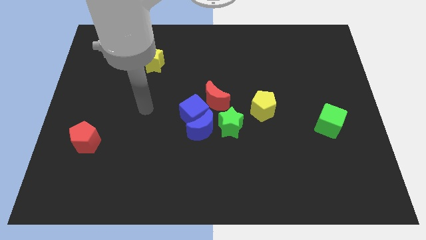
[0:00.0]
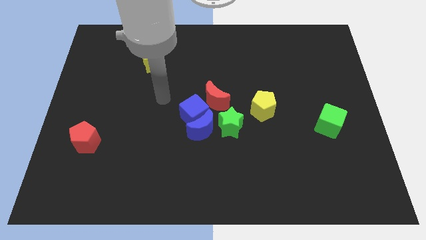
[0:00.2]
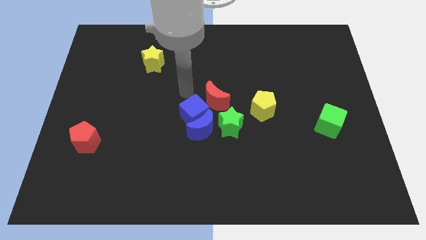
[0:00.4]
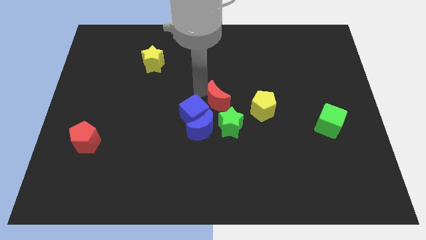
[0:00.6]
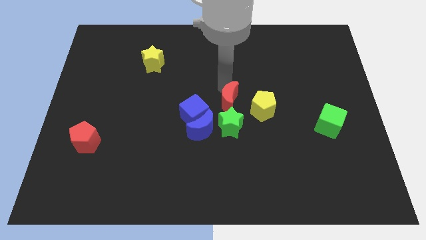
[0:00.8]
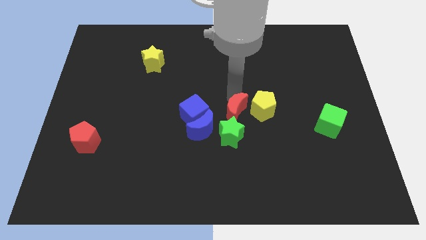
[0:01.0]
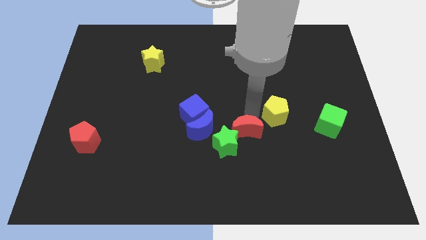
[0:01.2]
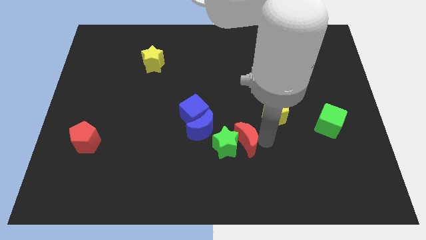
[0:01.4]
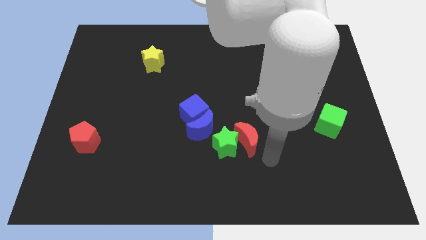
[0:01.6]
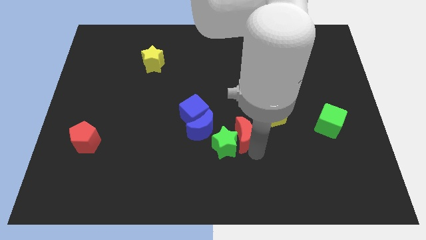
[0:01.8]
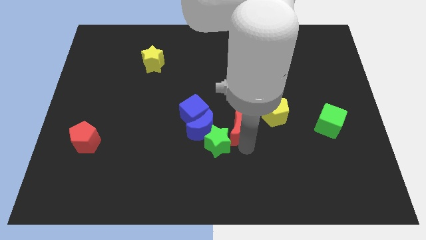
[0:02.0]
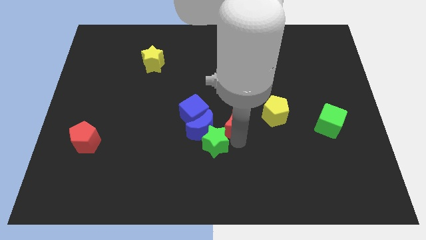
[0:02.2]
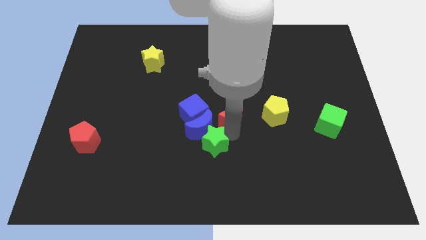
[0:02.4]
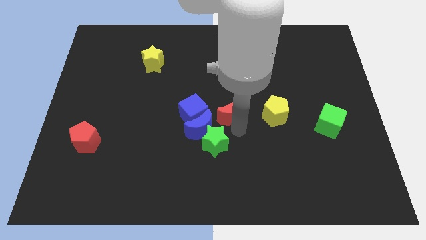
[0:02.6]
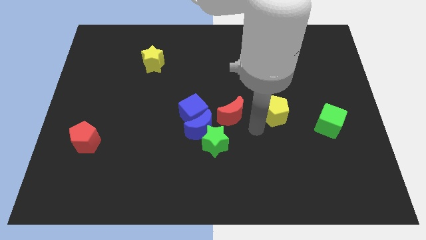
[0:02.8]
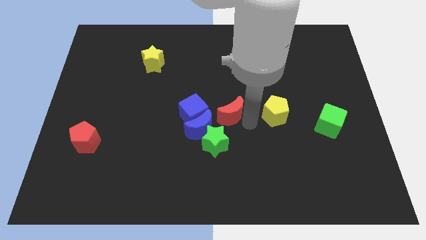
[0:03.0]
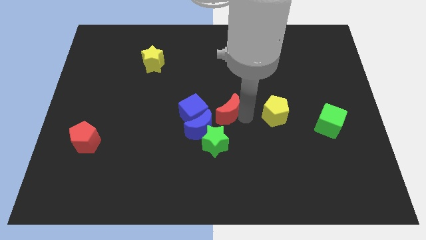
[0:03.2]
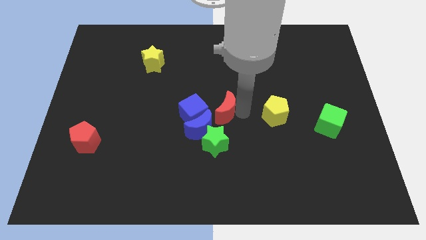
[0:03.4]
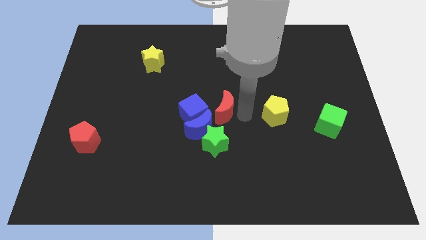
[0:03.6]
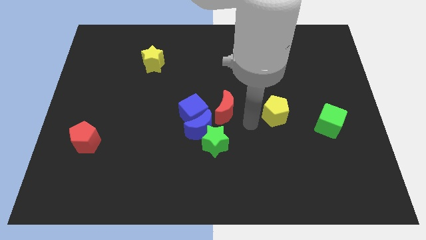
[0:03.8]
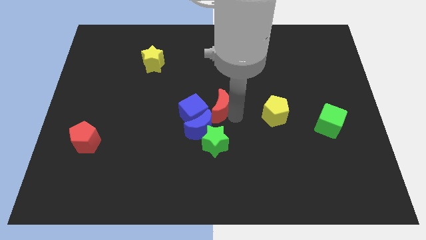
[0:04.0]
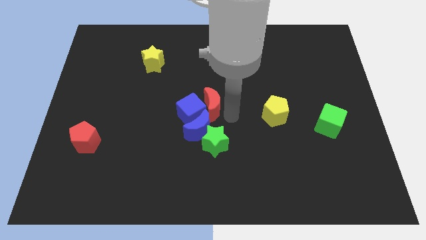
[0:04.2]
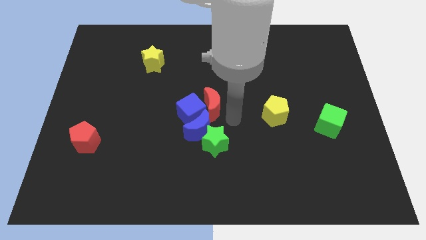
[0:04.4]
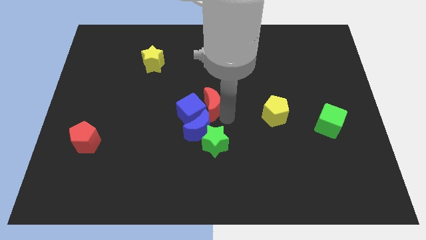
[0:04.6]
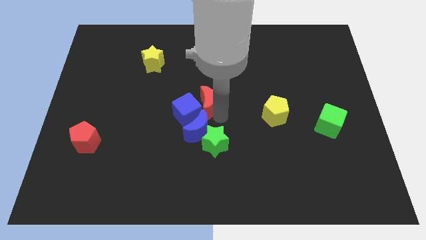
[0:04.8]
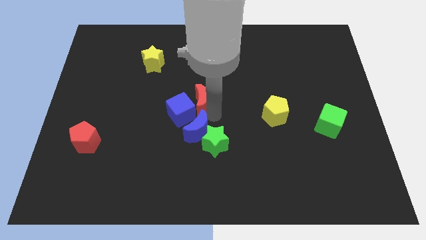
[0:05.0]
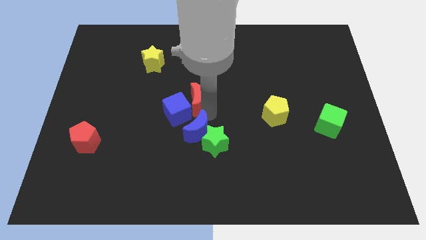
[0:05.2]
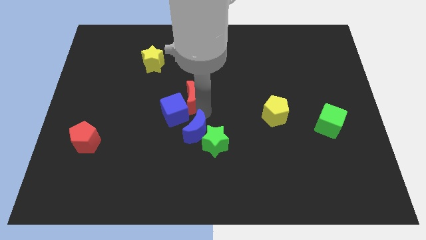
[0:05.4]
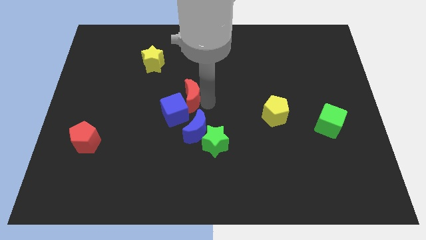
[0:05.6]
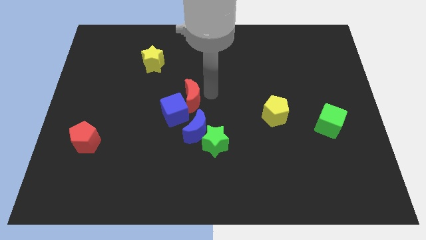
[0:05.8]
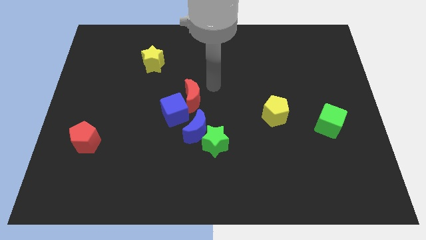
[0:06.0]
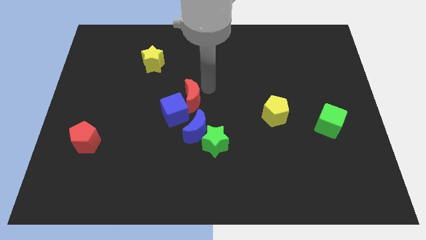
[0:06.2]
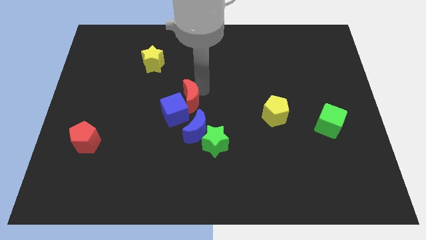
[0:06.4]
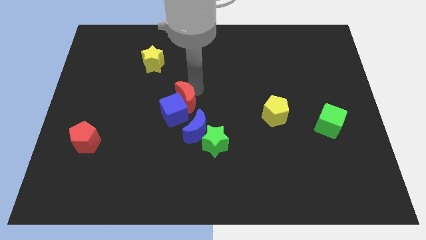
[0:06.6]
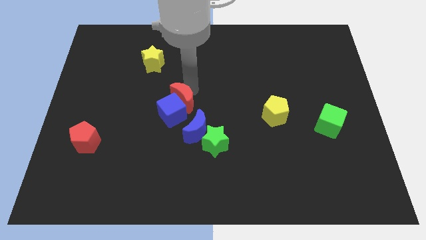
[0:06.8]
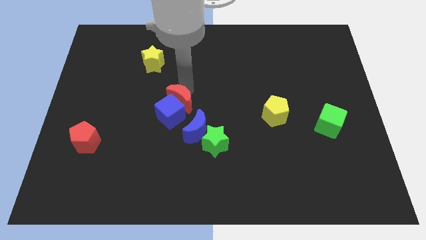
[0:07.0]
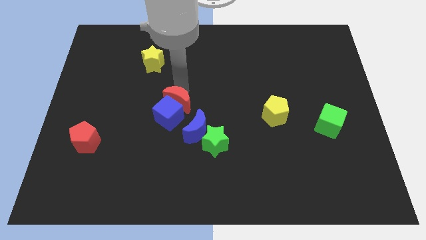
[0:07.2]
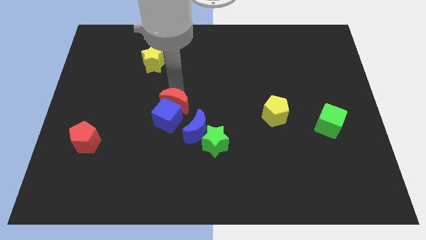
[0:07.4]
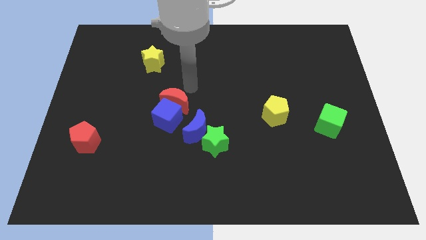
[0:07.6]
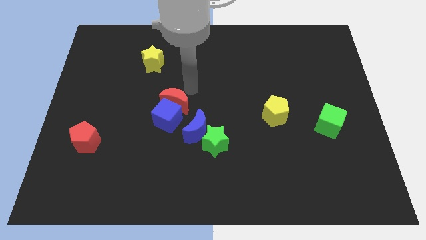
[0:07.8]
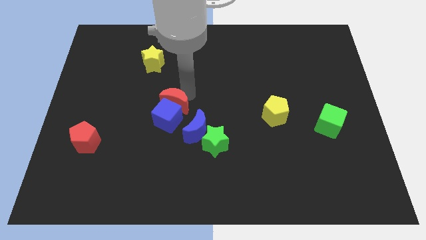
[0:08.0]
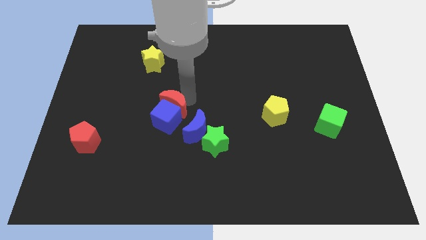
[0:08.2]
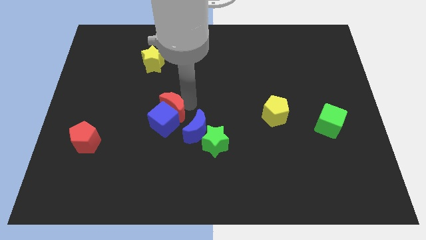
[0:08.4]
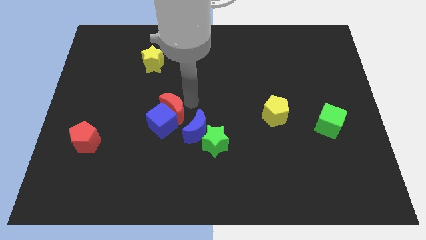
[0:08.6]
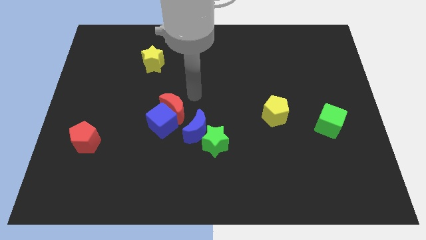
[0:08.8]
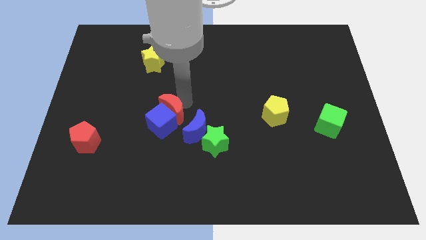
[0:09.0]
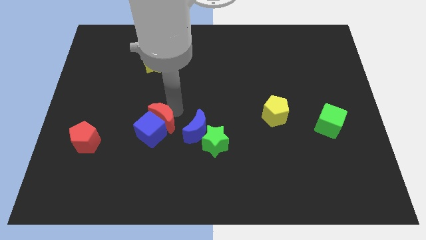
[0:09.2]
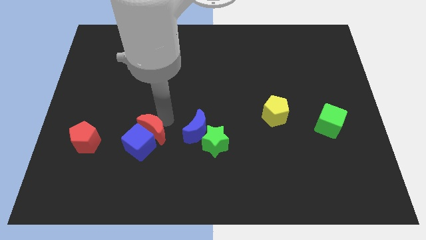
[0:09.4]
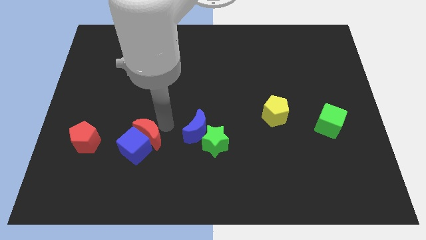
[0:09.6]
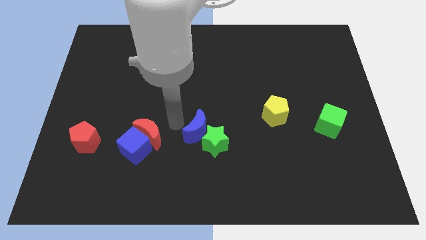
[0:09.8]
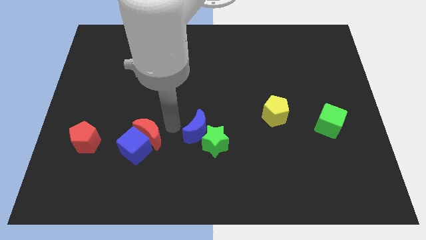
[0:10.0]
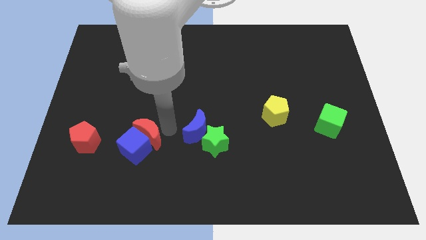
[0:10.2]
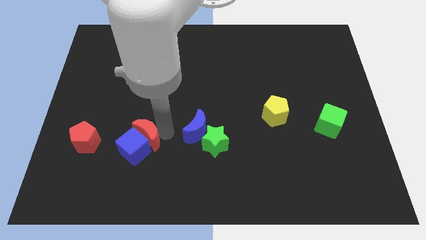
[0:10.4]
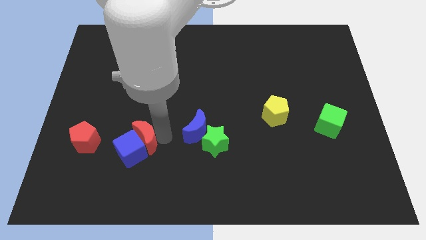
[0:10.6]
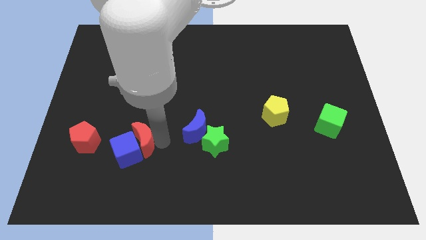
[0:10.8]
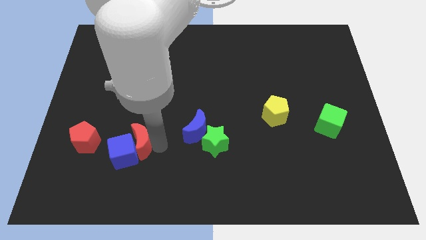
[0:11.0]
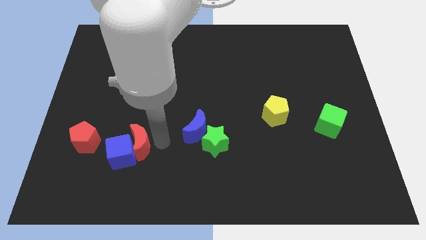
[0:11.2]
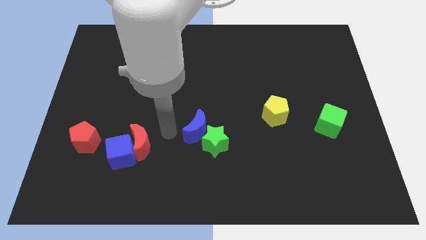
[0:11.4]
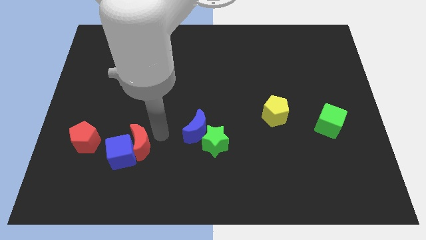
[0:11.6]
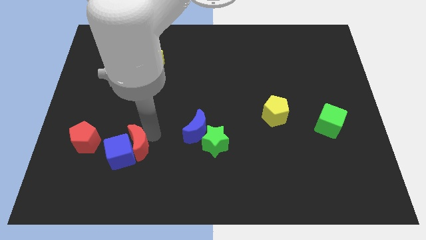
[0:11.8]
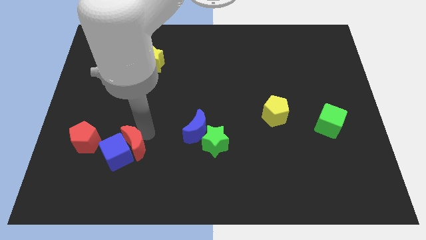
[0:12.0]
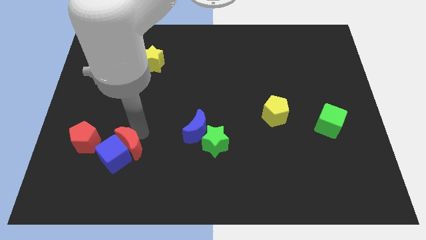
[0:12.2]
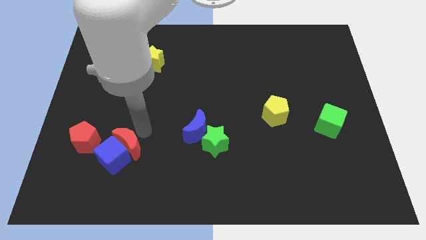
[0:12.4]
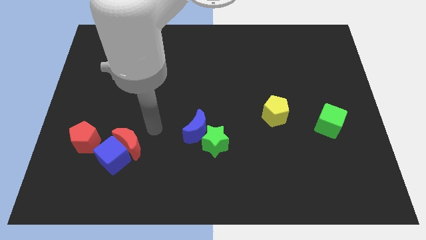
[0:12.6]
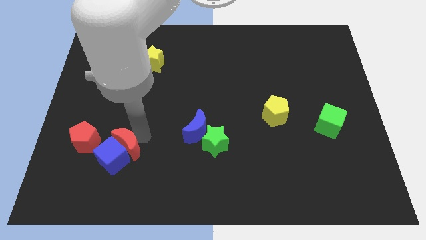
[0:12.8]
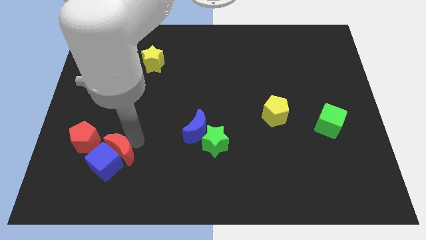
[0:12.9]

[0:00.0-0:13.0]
slide the red moon to the bottom right side of the red pentagon

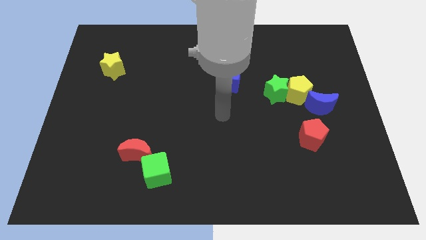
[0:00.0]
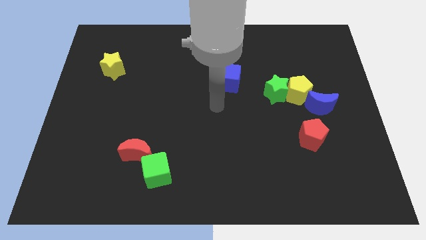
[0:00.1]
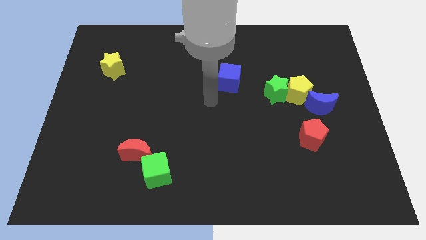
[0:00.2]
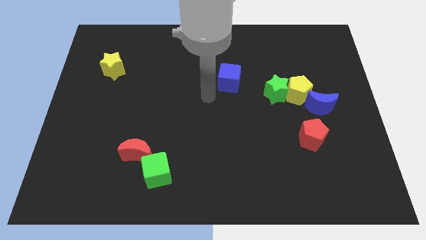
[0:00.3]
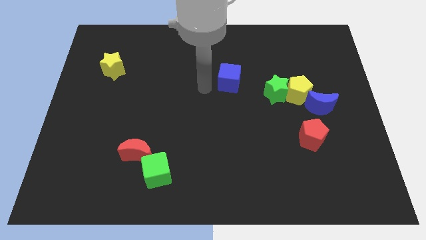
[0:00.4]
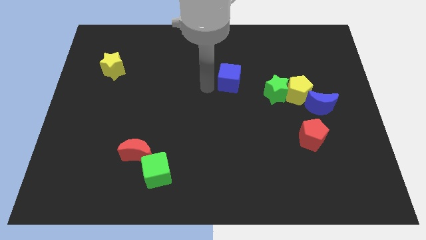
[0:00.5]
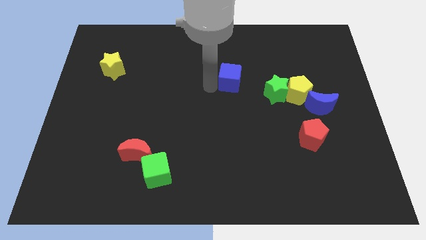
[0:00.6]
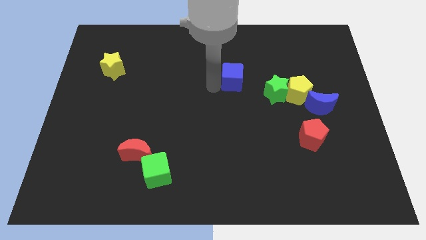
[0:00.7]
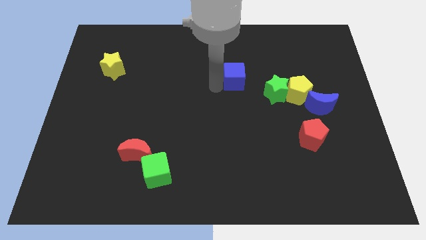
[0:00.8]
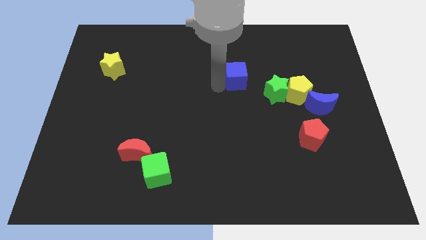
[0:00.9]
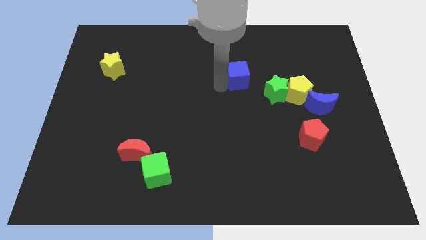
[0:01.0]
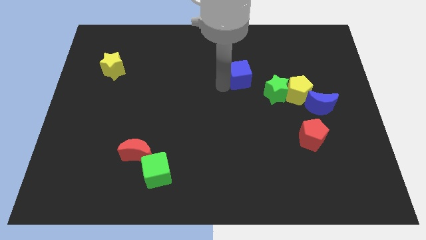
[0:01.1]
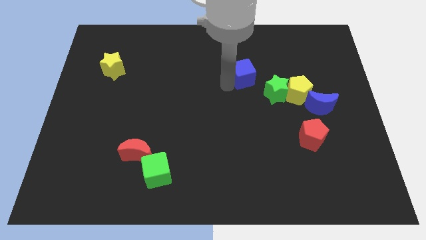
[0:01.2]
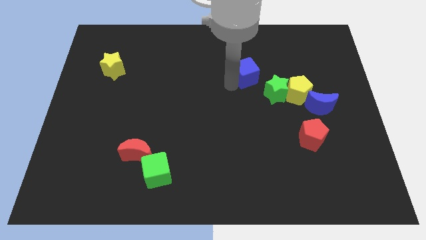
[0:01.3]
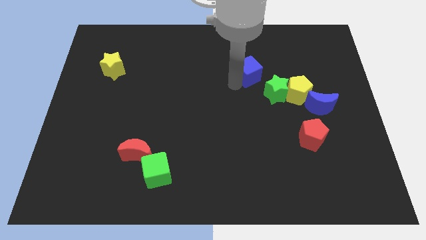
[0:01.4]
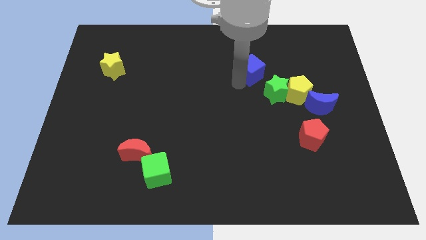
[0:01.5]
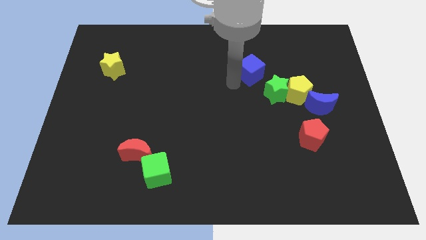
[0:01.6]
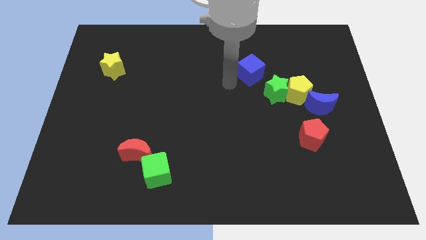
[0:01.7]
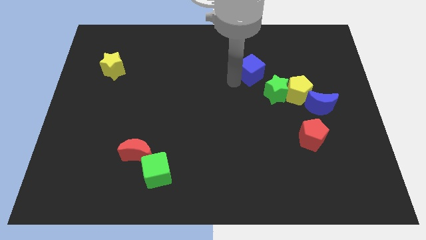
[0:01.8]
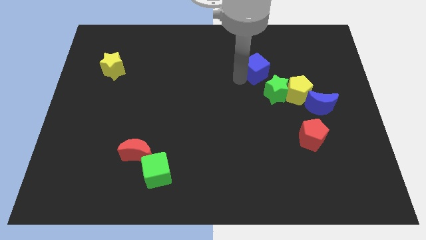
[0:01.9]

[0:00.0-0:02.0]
put the blue cube to the top side of the green star
